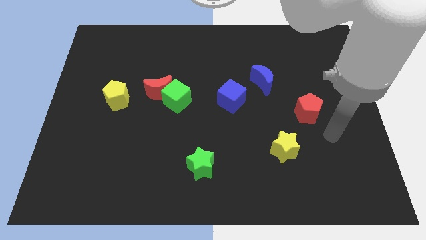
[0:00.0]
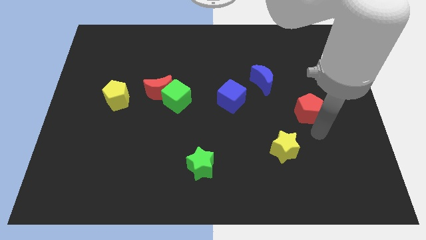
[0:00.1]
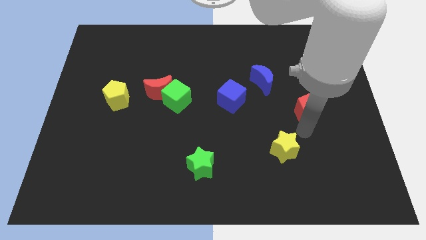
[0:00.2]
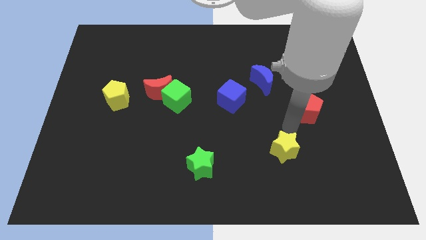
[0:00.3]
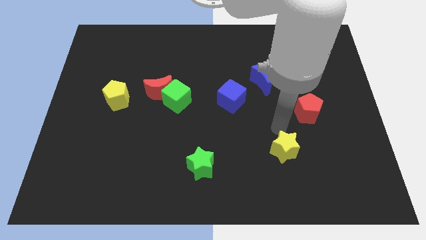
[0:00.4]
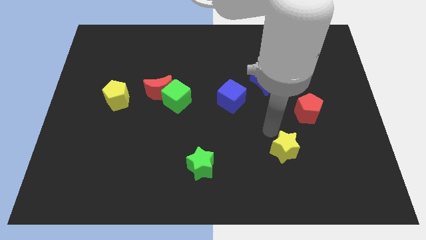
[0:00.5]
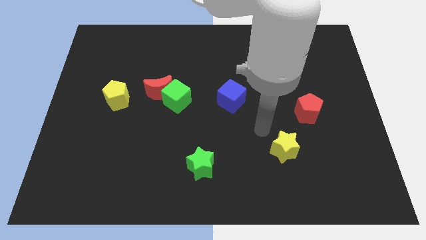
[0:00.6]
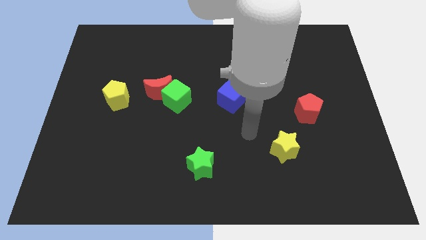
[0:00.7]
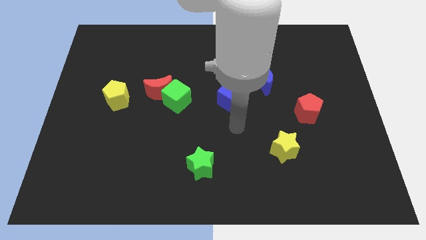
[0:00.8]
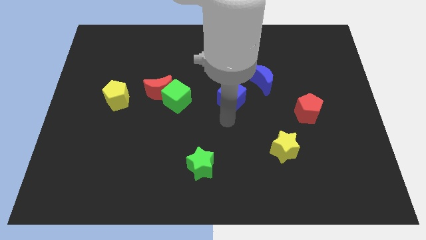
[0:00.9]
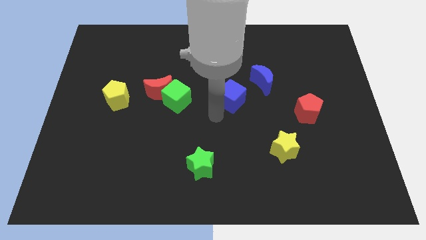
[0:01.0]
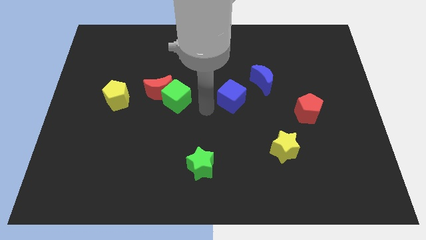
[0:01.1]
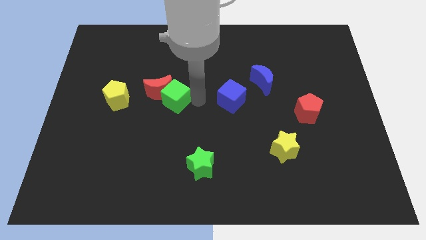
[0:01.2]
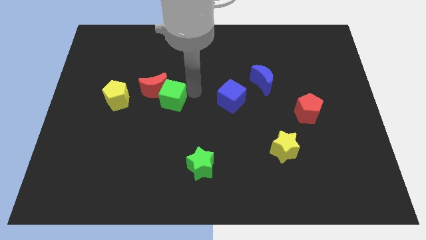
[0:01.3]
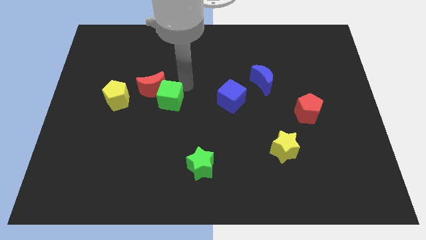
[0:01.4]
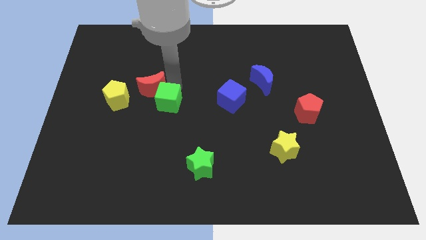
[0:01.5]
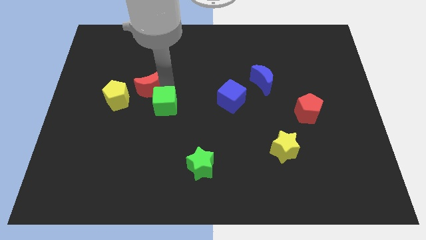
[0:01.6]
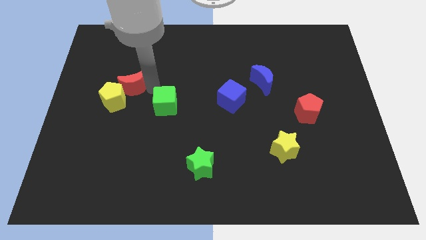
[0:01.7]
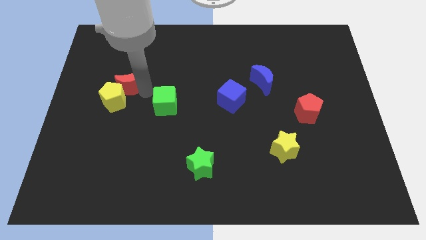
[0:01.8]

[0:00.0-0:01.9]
pull the green cube apart from the red moon

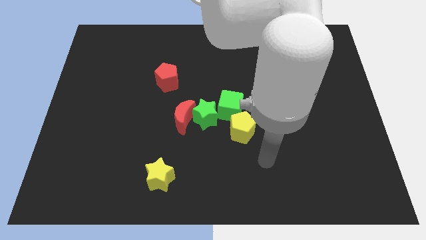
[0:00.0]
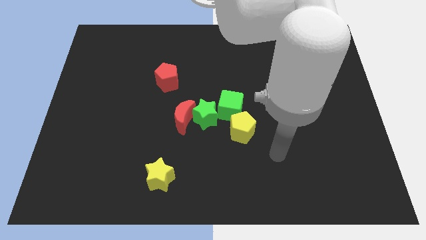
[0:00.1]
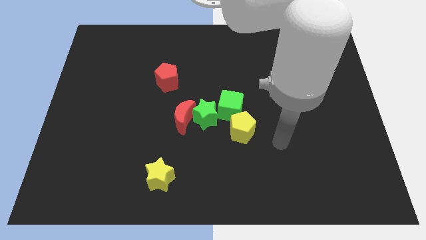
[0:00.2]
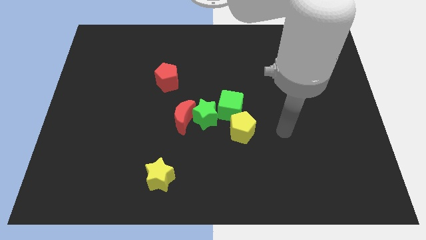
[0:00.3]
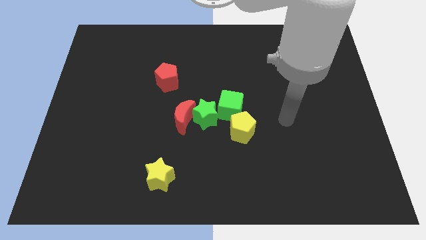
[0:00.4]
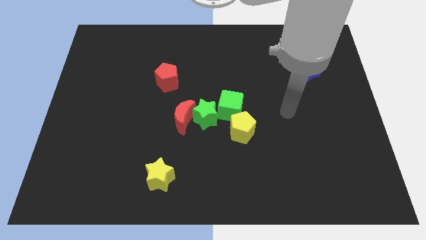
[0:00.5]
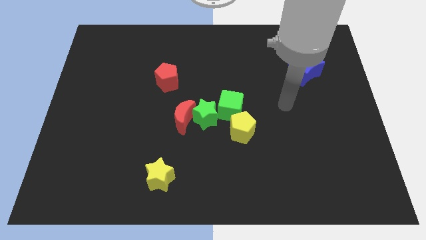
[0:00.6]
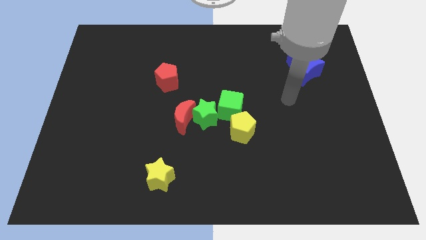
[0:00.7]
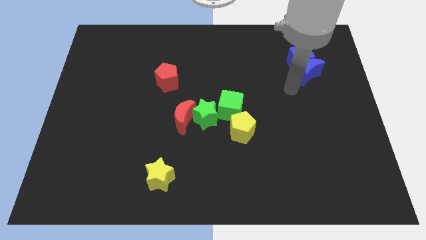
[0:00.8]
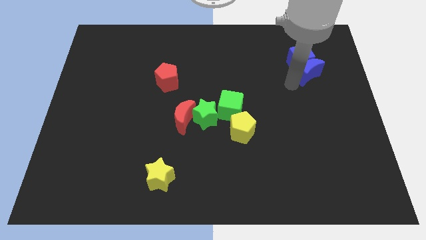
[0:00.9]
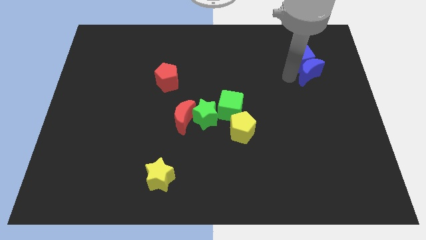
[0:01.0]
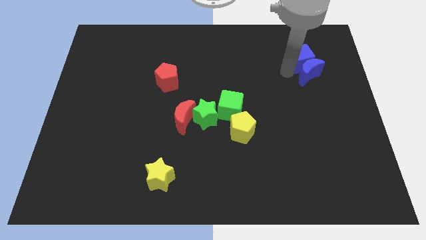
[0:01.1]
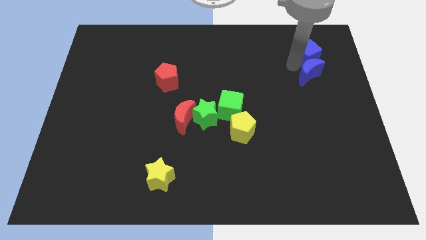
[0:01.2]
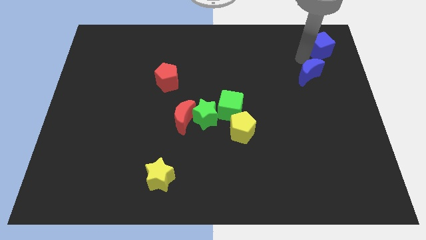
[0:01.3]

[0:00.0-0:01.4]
move the blue moon away from the blue cube

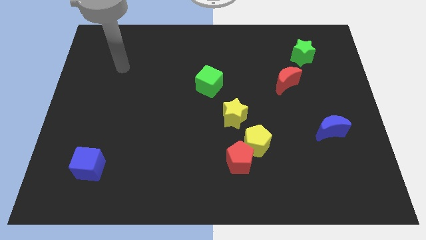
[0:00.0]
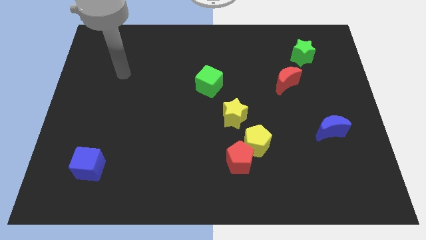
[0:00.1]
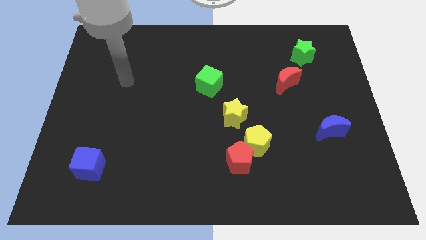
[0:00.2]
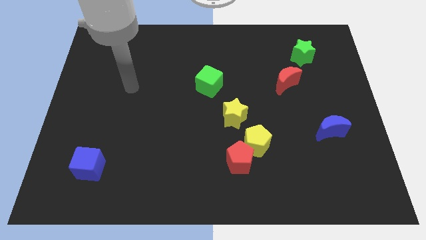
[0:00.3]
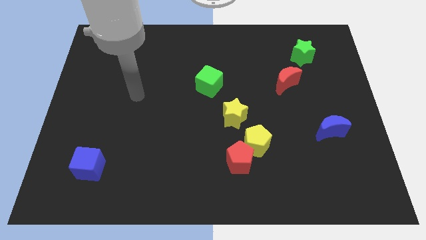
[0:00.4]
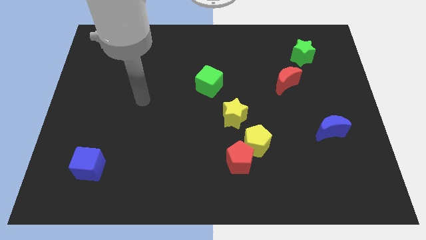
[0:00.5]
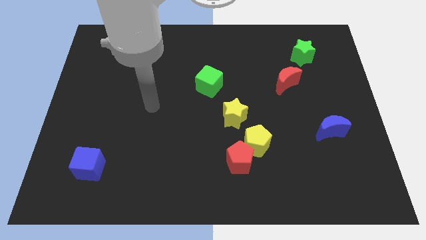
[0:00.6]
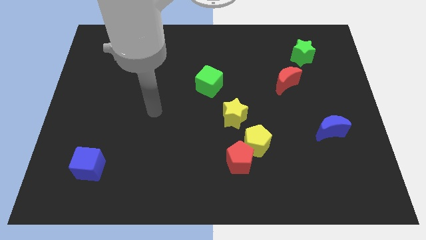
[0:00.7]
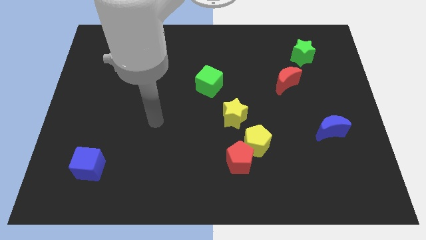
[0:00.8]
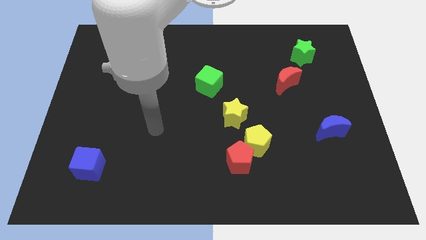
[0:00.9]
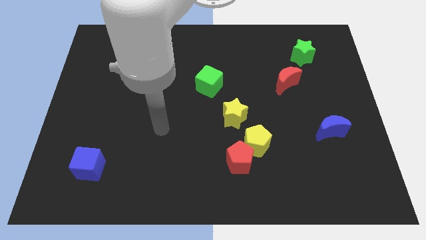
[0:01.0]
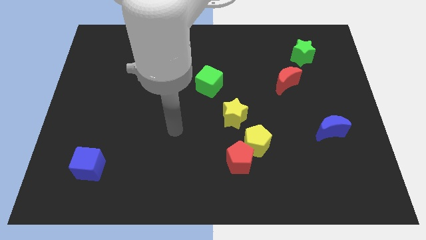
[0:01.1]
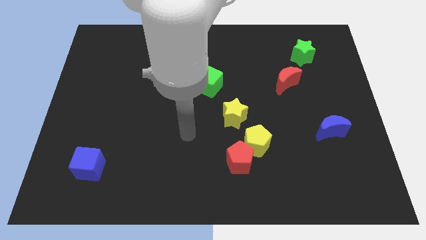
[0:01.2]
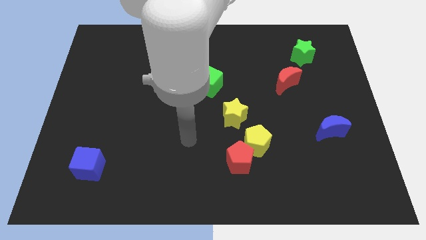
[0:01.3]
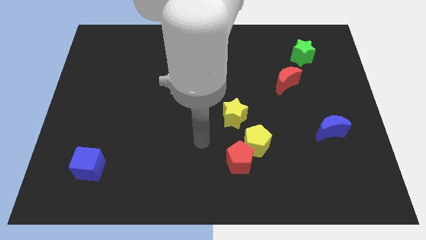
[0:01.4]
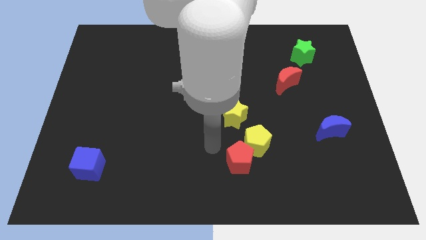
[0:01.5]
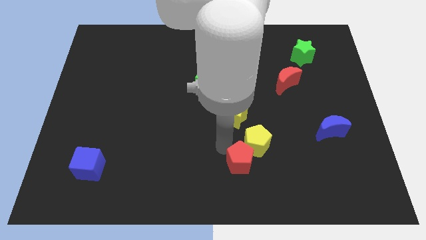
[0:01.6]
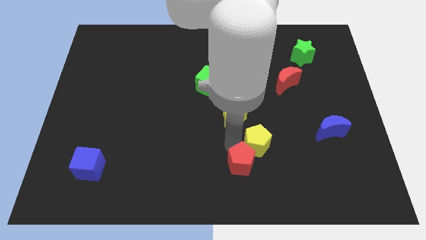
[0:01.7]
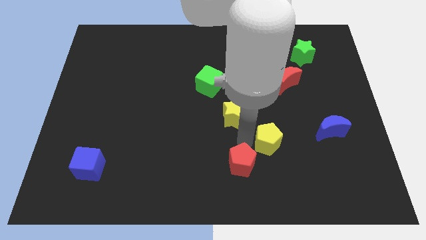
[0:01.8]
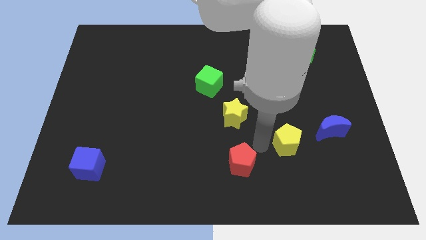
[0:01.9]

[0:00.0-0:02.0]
pull the red pentagon apart from the yellow pentagon

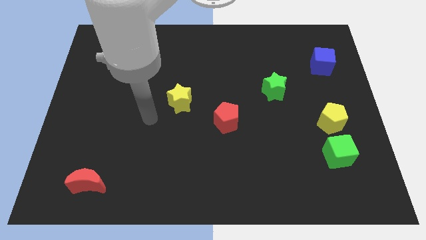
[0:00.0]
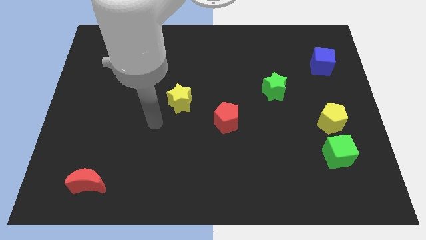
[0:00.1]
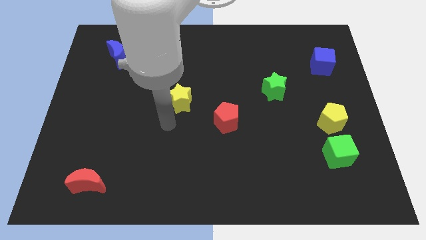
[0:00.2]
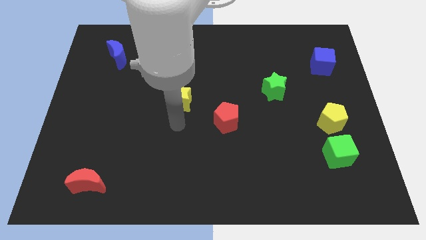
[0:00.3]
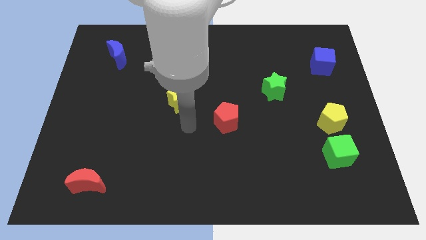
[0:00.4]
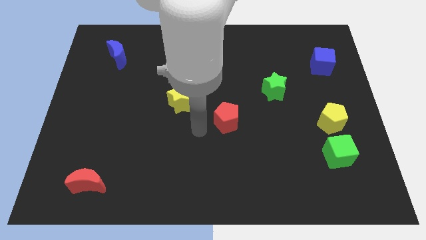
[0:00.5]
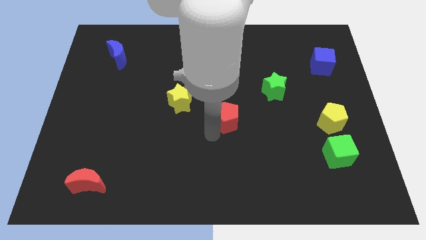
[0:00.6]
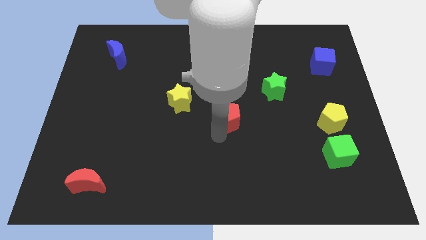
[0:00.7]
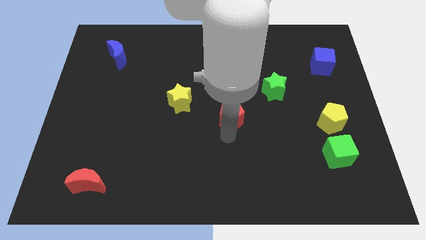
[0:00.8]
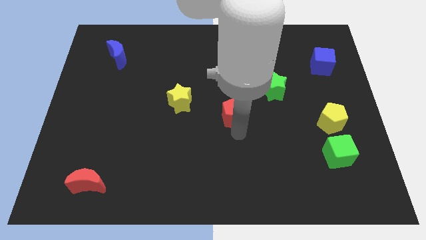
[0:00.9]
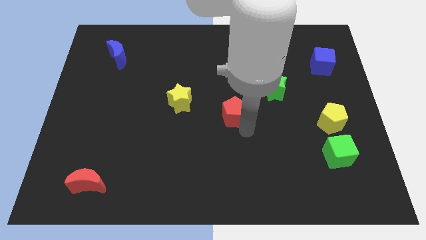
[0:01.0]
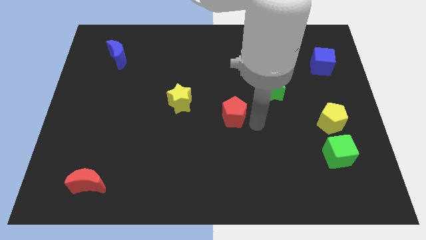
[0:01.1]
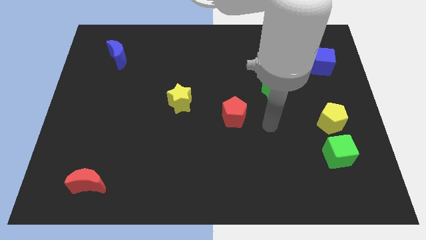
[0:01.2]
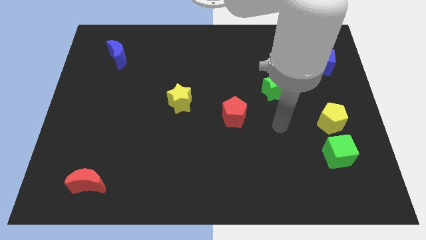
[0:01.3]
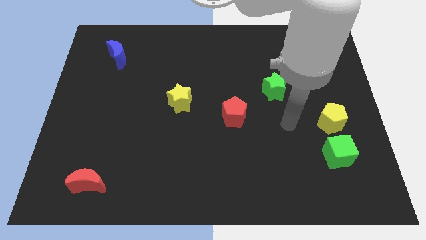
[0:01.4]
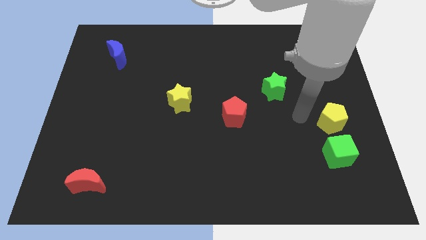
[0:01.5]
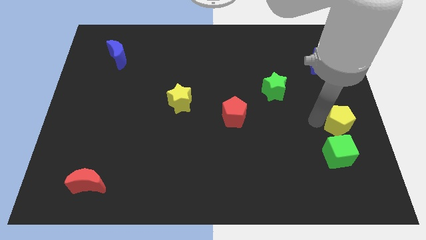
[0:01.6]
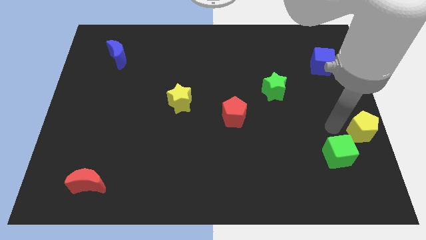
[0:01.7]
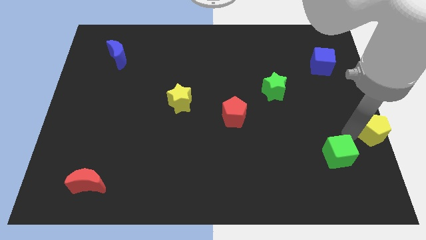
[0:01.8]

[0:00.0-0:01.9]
separate the green cube from the yellow pentagon

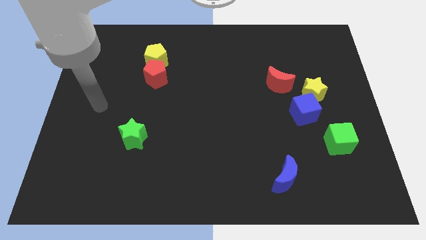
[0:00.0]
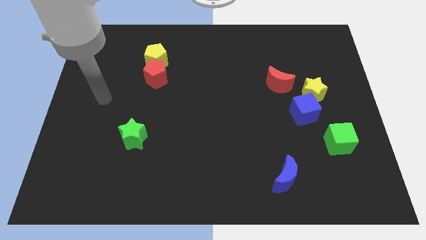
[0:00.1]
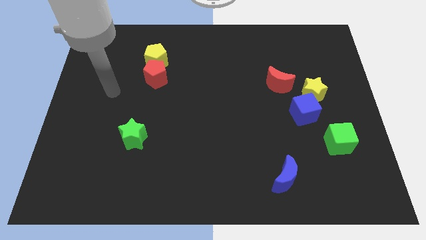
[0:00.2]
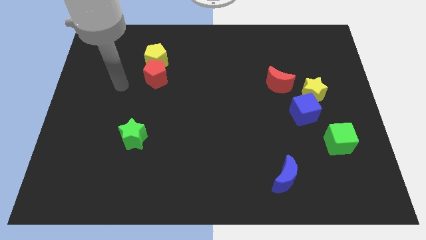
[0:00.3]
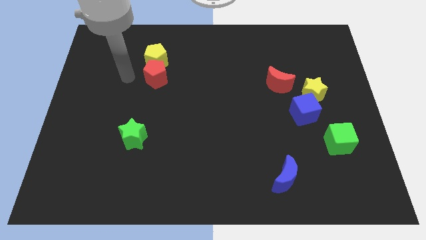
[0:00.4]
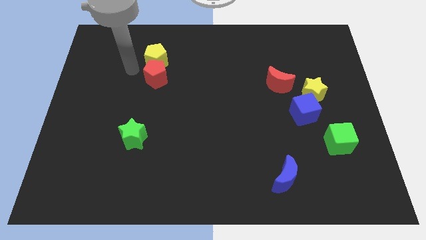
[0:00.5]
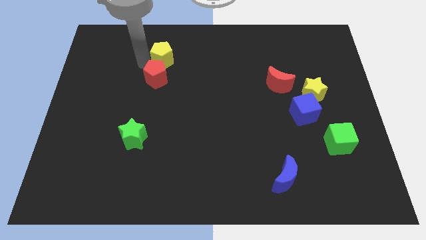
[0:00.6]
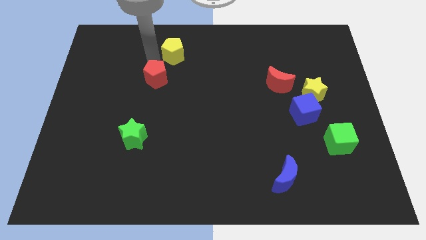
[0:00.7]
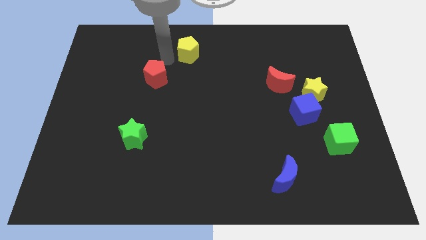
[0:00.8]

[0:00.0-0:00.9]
move the red pentagon away from the yellow pentagon

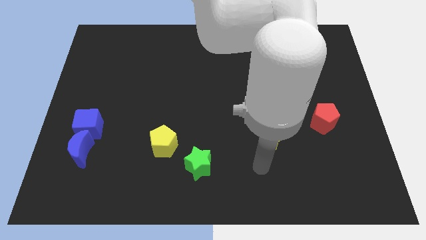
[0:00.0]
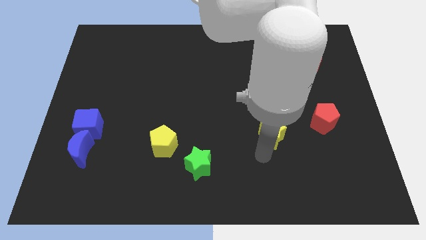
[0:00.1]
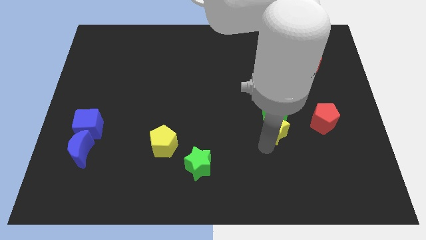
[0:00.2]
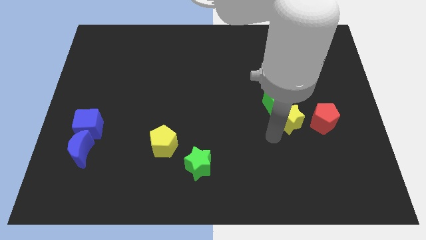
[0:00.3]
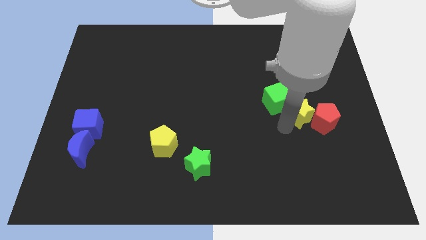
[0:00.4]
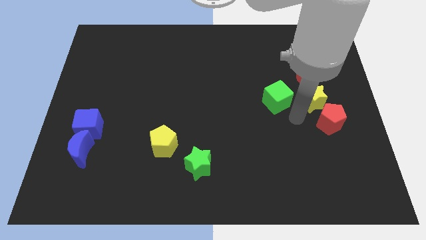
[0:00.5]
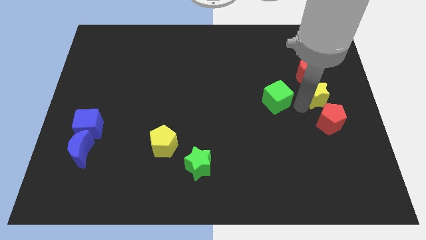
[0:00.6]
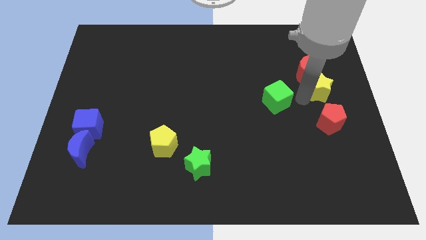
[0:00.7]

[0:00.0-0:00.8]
pull the green cube apart from the yellow star

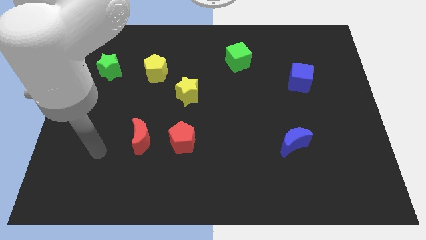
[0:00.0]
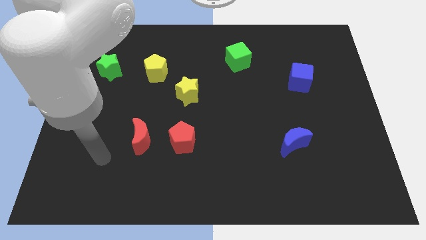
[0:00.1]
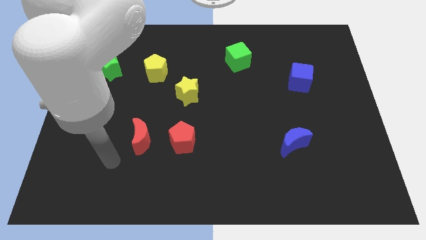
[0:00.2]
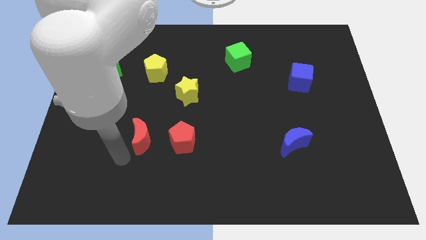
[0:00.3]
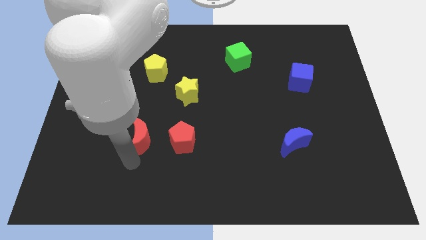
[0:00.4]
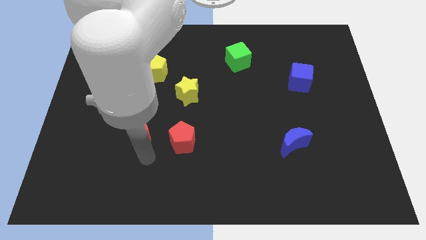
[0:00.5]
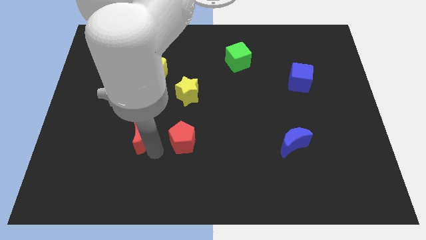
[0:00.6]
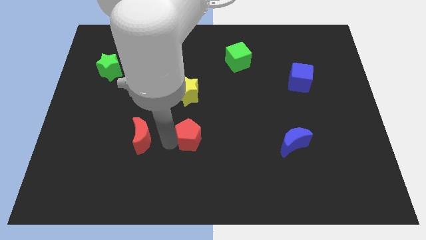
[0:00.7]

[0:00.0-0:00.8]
separate the red moon from the red pentagon
